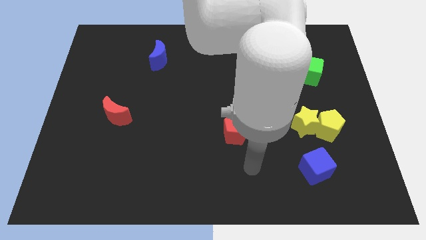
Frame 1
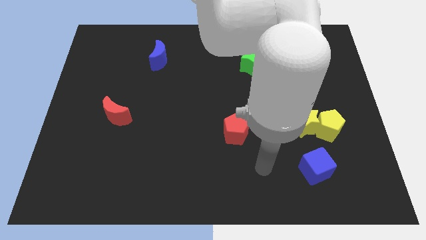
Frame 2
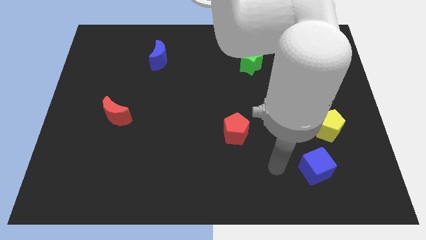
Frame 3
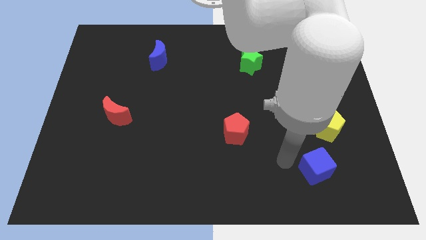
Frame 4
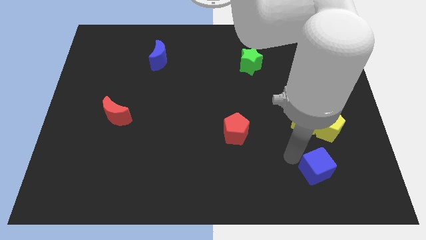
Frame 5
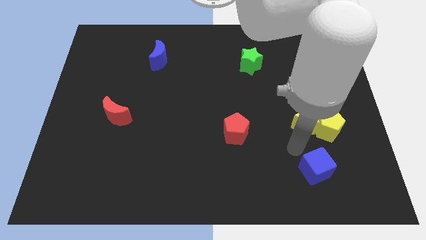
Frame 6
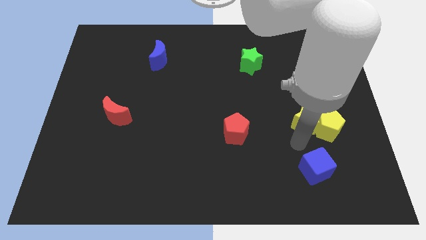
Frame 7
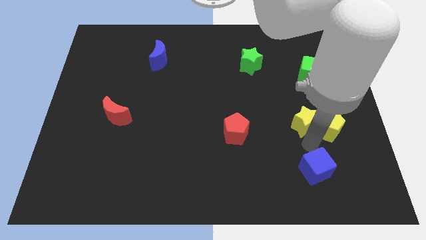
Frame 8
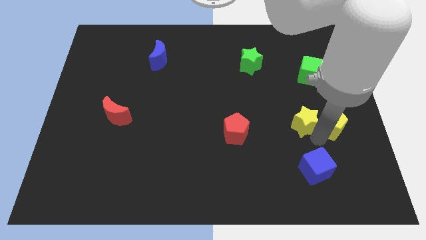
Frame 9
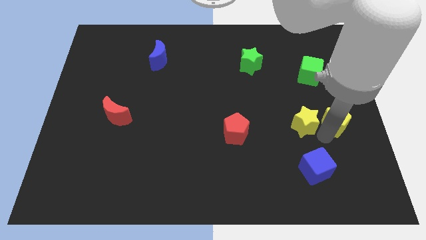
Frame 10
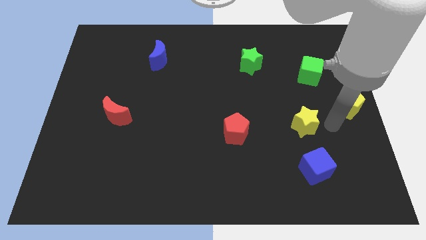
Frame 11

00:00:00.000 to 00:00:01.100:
separate the yellow star from the yellow pentagon

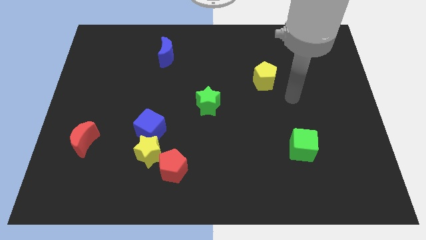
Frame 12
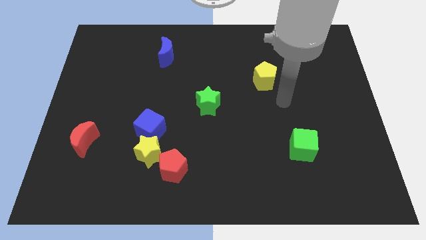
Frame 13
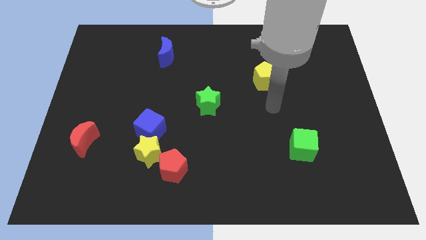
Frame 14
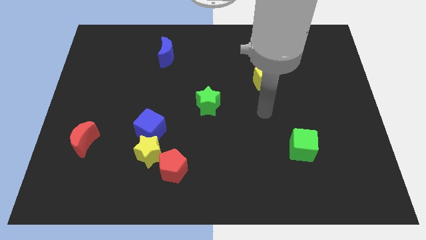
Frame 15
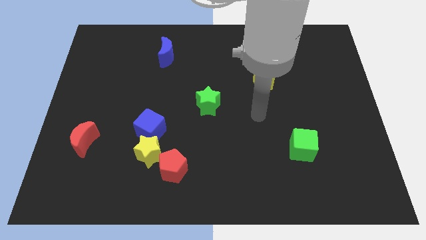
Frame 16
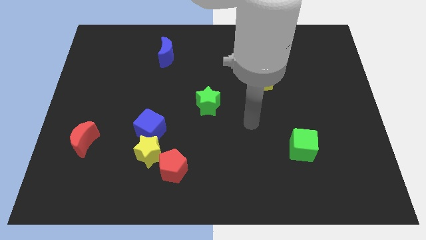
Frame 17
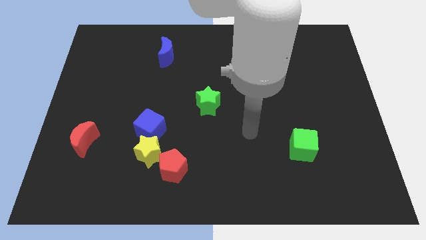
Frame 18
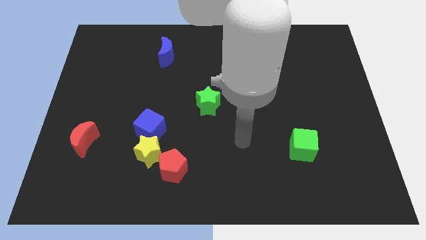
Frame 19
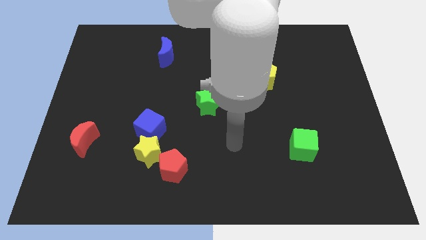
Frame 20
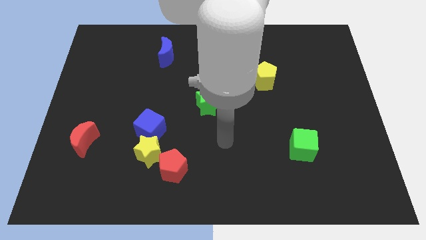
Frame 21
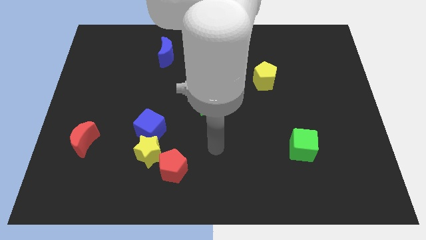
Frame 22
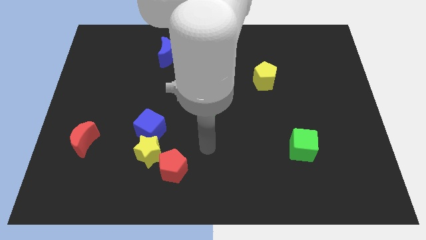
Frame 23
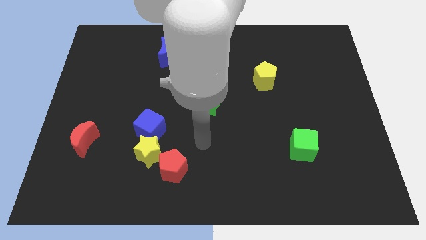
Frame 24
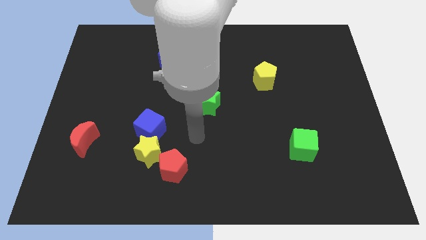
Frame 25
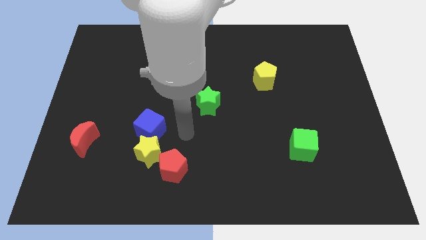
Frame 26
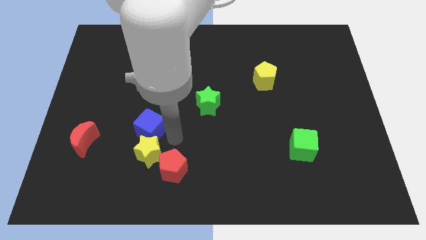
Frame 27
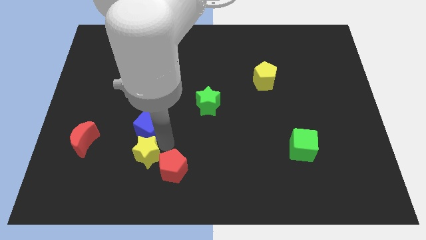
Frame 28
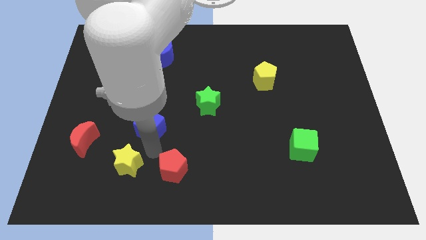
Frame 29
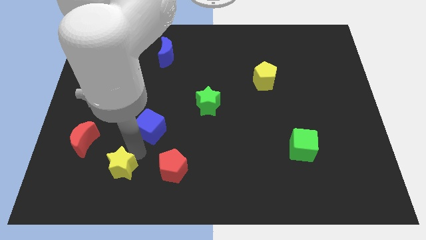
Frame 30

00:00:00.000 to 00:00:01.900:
separate the blue cube from the yellow star

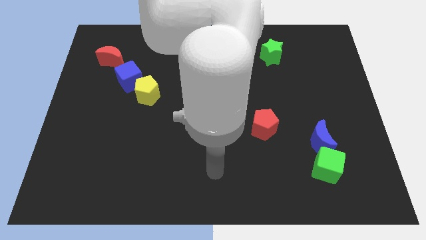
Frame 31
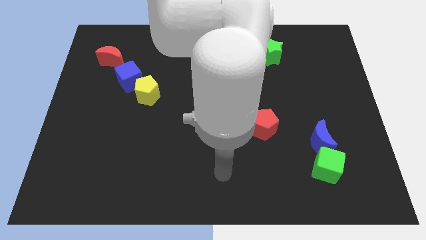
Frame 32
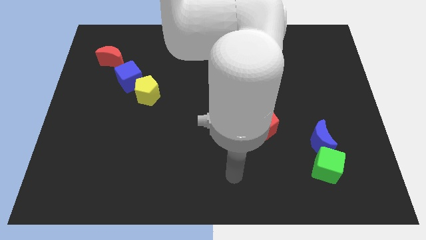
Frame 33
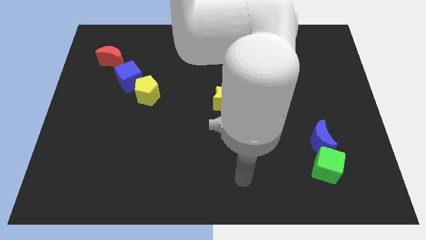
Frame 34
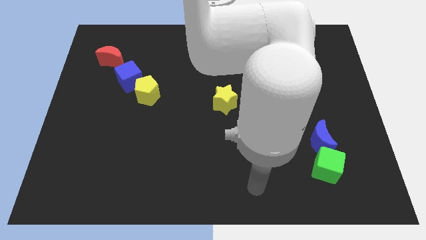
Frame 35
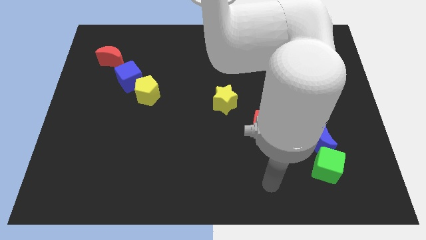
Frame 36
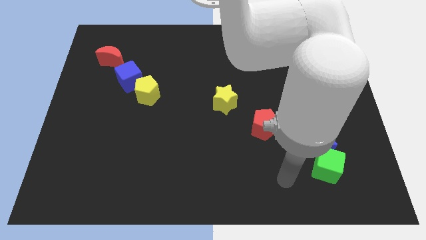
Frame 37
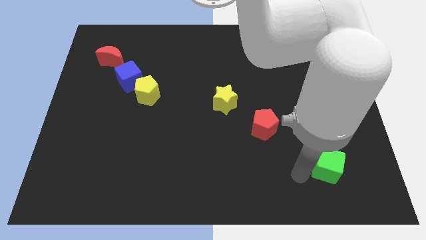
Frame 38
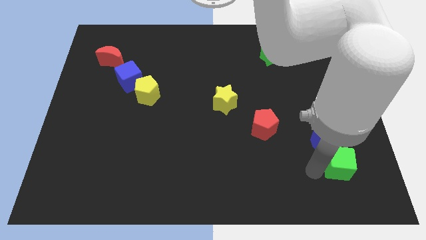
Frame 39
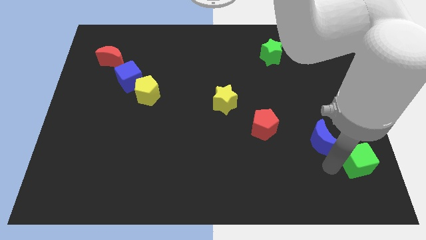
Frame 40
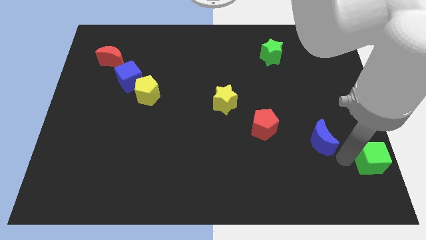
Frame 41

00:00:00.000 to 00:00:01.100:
pull the blue moon apart from the green cube

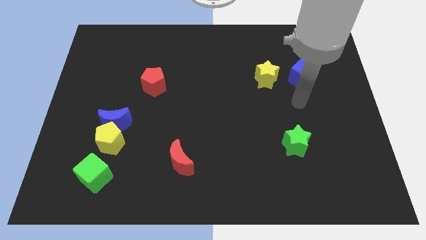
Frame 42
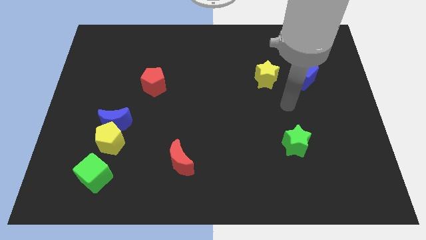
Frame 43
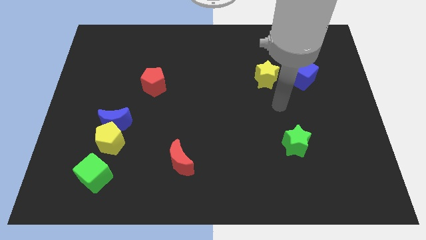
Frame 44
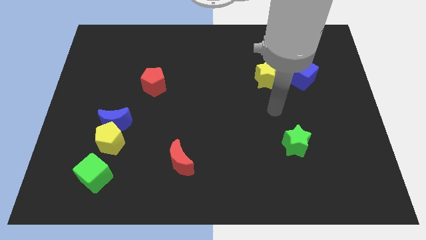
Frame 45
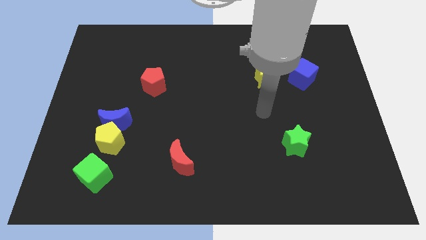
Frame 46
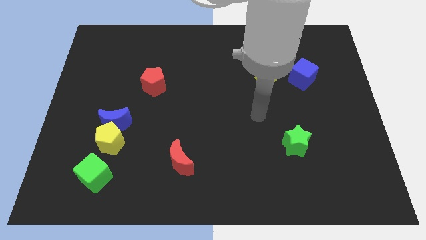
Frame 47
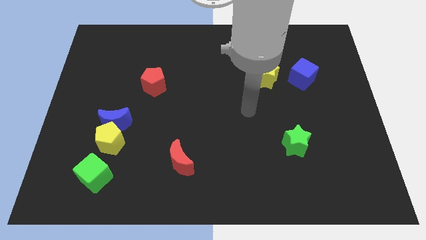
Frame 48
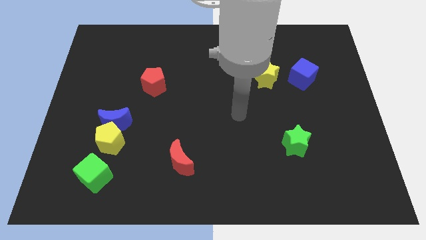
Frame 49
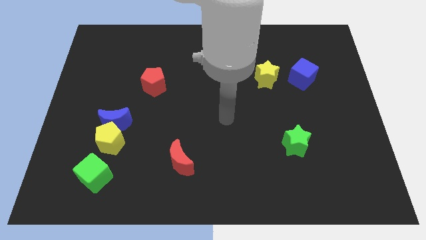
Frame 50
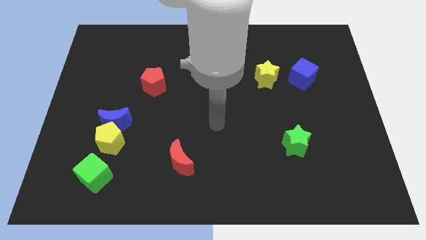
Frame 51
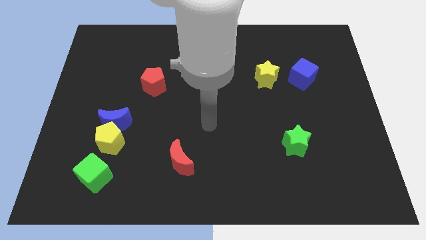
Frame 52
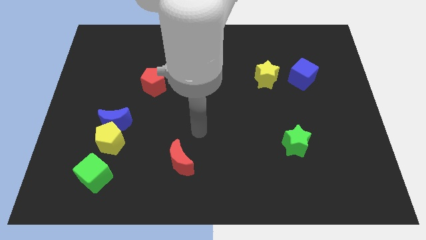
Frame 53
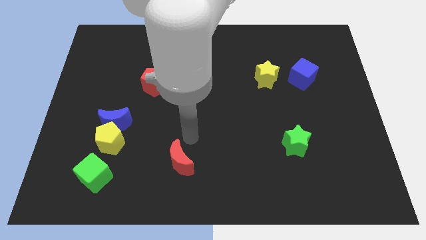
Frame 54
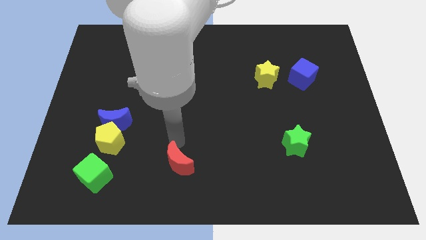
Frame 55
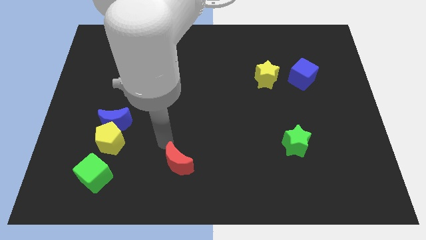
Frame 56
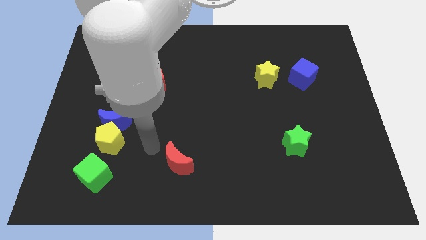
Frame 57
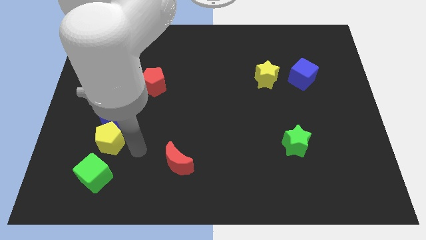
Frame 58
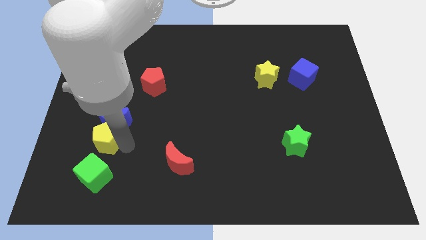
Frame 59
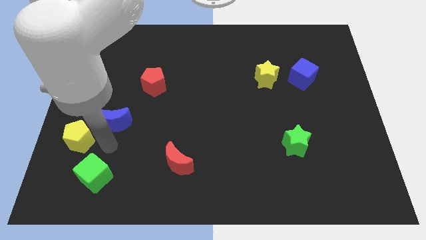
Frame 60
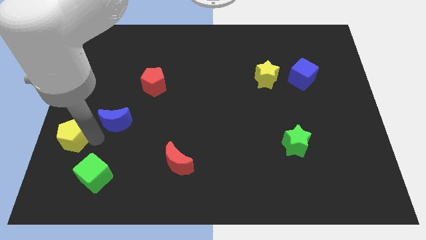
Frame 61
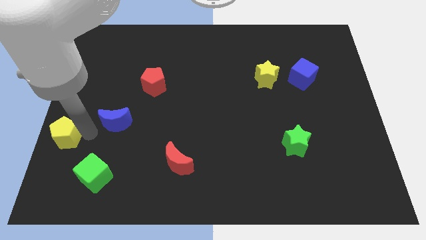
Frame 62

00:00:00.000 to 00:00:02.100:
move the blue moon away from the yellow pentagon

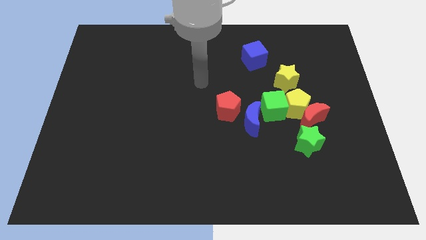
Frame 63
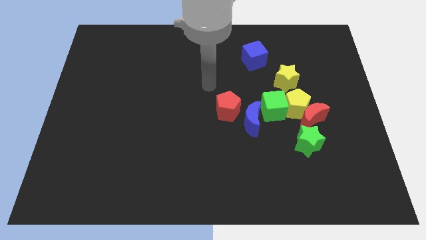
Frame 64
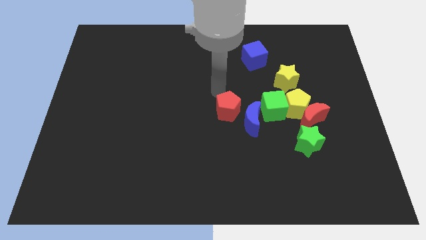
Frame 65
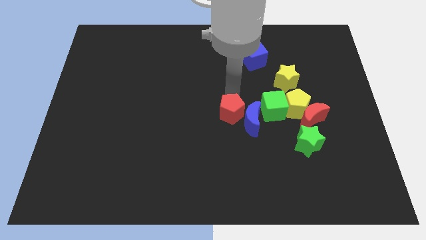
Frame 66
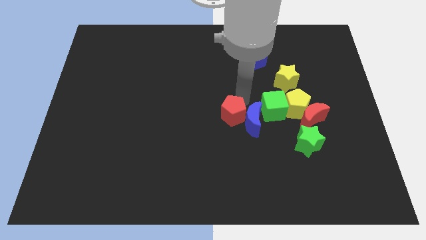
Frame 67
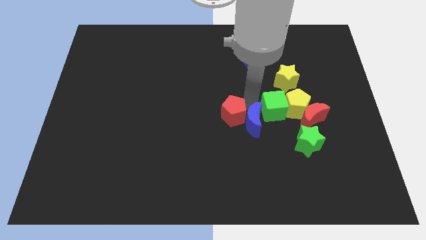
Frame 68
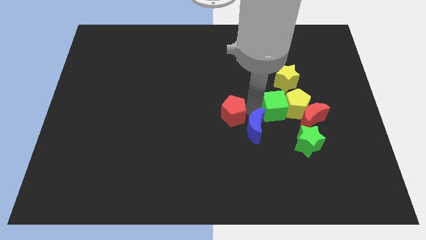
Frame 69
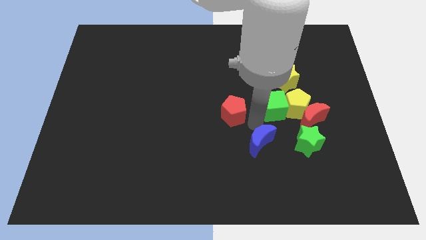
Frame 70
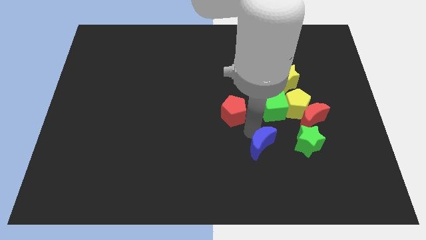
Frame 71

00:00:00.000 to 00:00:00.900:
pull the red pentagon apart from the blue moon

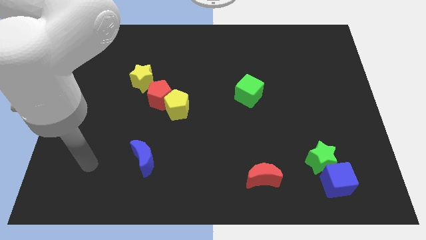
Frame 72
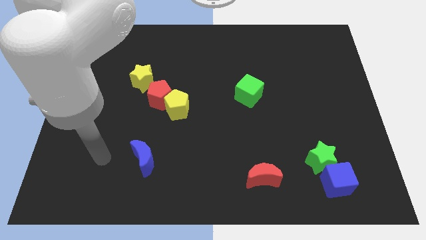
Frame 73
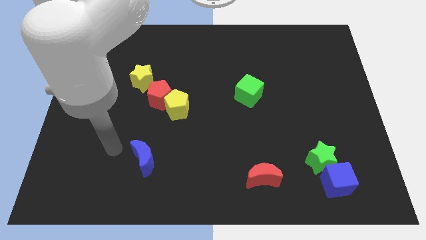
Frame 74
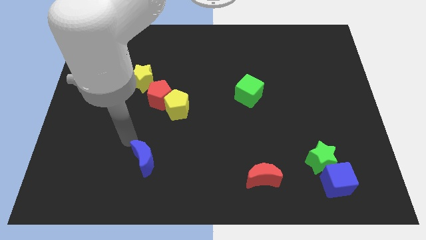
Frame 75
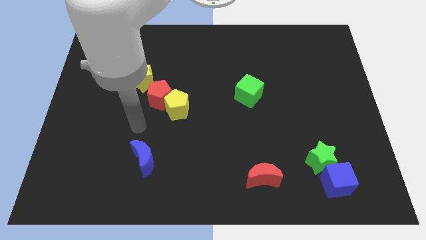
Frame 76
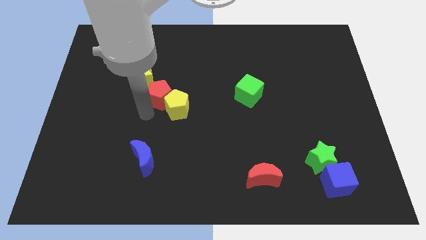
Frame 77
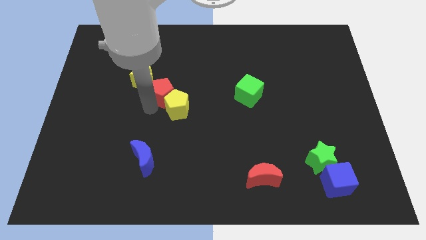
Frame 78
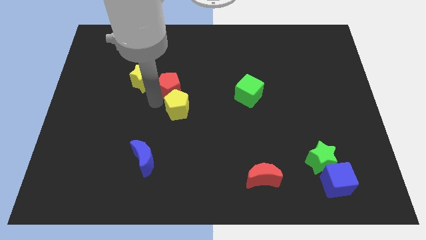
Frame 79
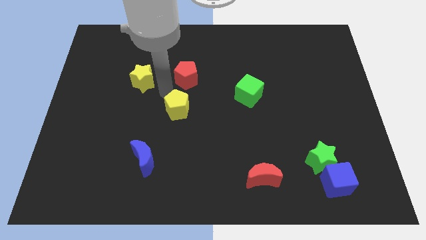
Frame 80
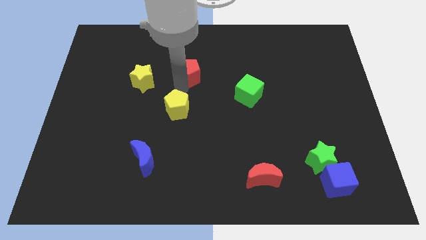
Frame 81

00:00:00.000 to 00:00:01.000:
separate the yellow pentagon from the red pentagon

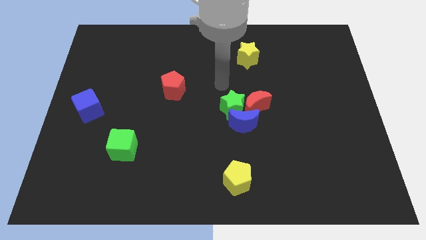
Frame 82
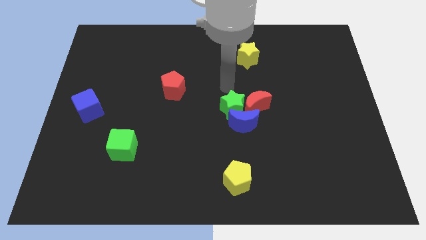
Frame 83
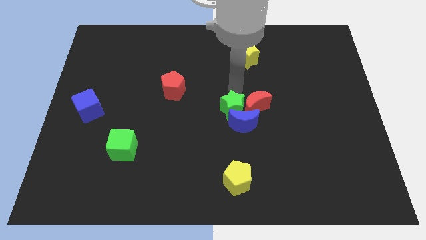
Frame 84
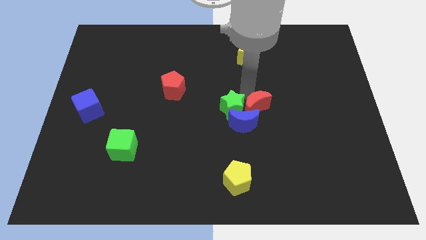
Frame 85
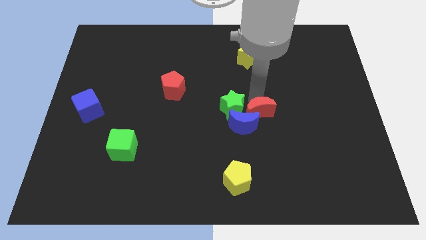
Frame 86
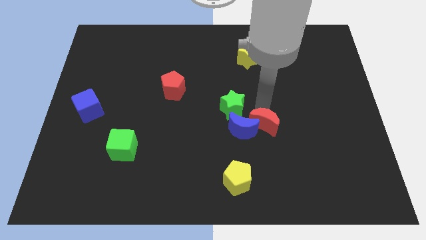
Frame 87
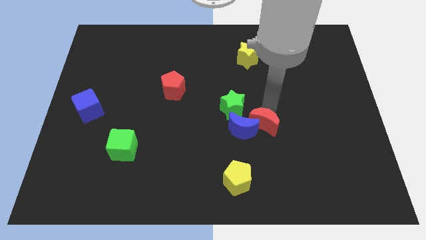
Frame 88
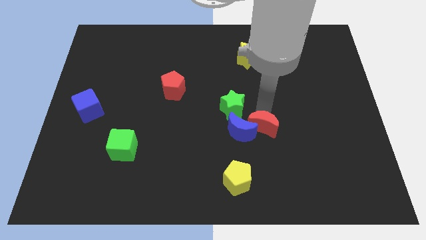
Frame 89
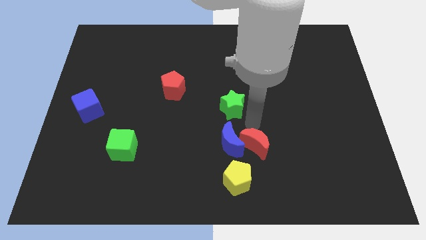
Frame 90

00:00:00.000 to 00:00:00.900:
separate the green star from the blue moon and red moon

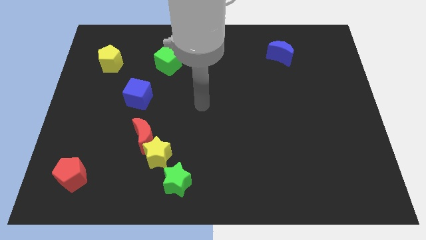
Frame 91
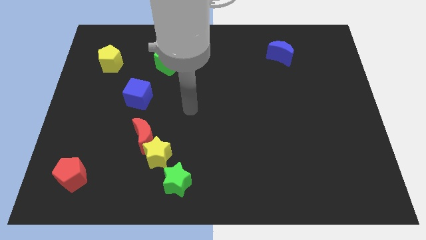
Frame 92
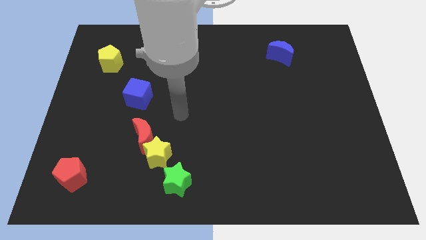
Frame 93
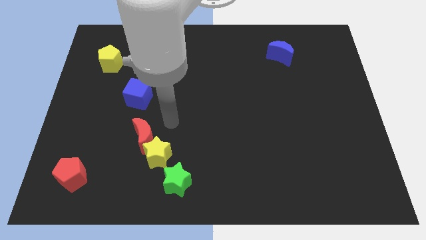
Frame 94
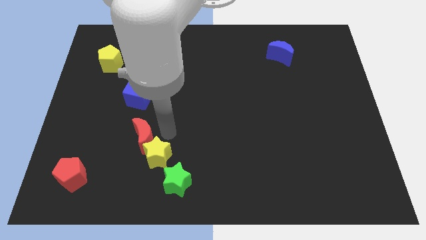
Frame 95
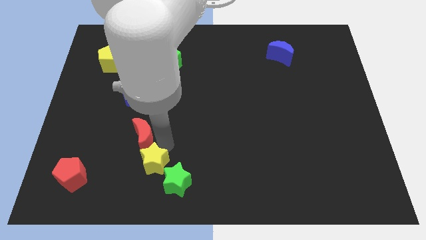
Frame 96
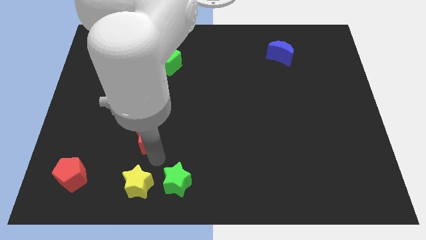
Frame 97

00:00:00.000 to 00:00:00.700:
pull the red moon apart from the yellow star
